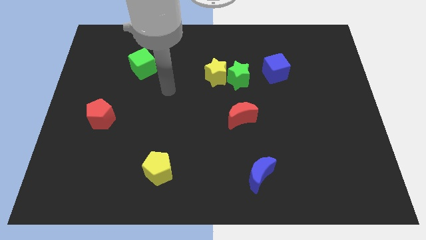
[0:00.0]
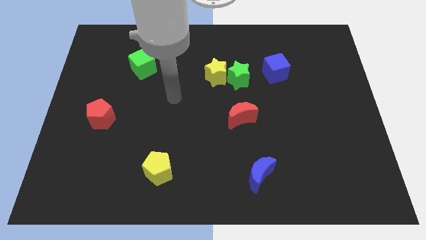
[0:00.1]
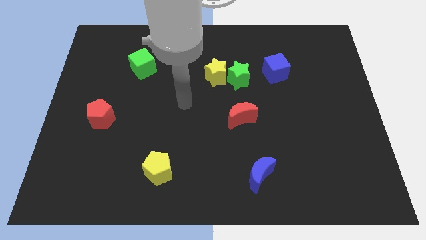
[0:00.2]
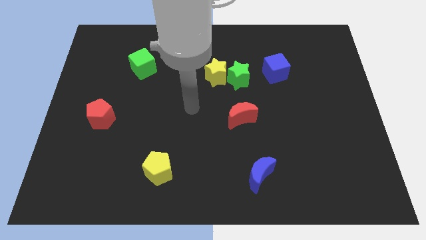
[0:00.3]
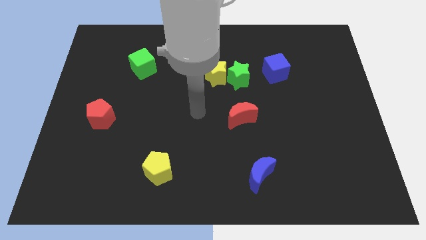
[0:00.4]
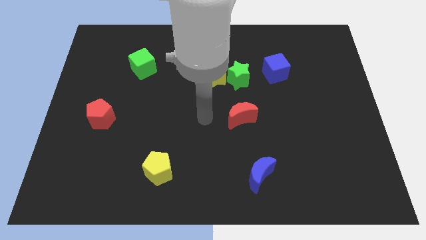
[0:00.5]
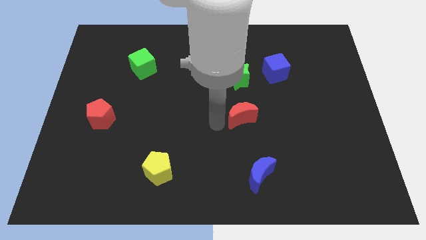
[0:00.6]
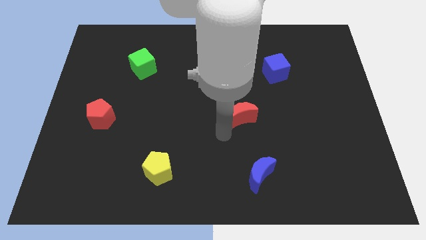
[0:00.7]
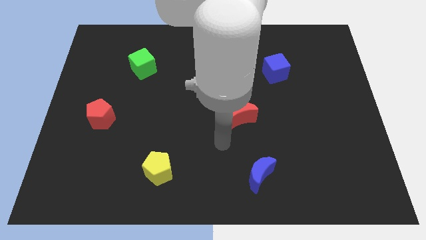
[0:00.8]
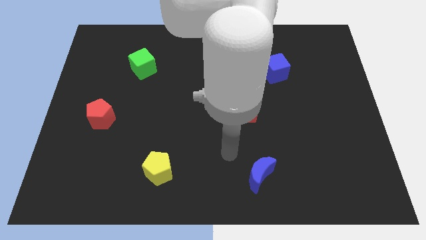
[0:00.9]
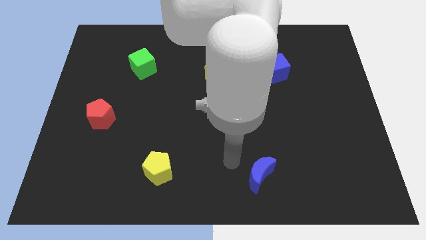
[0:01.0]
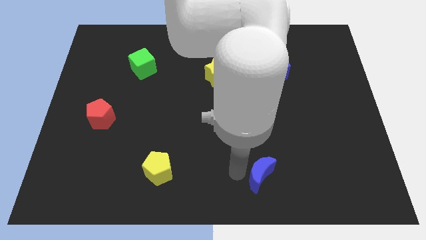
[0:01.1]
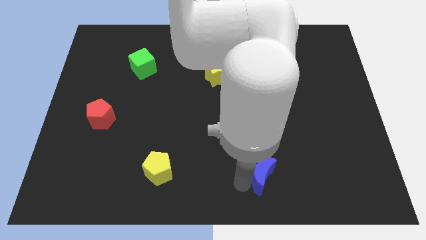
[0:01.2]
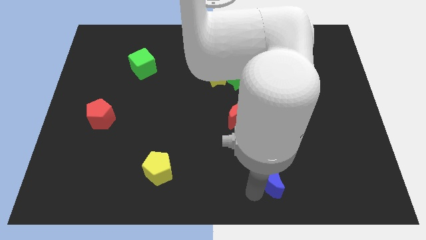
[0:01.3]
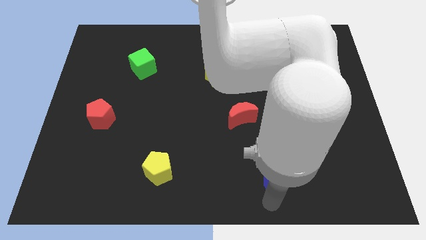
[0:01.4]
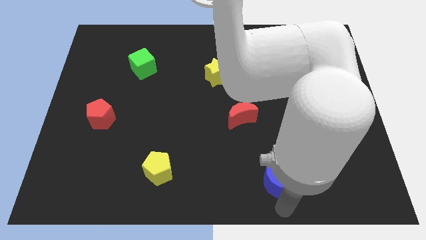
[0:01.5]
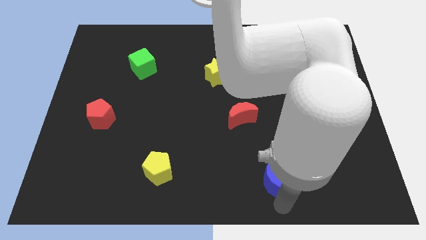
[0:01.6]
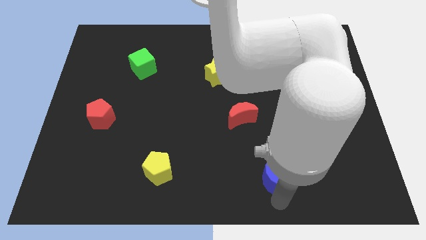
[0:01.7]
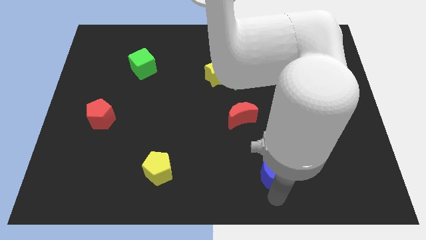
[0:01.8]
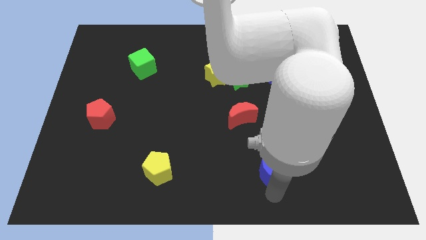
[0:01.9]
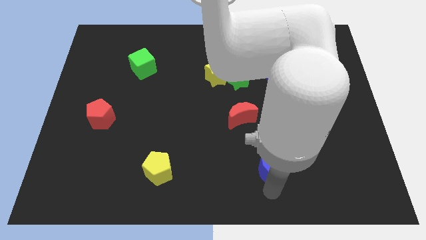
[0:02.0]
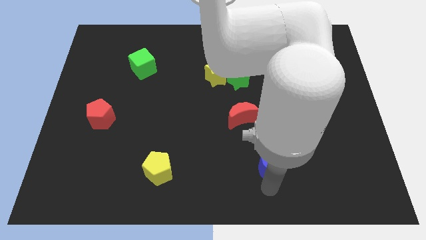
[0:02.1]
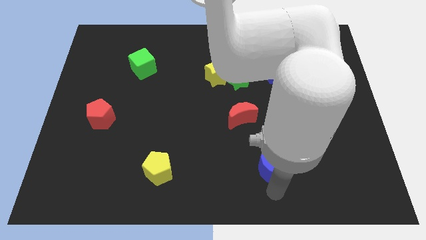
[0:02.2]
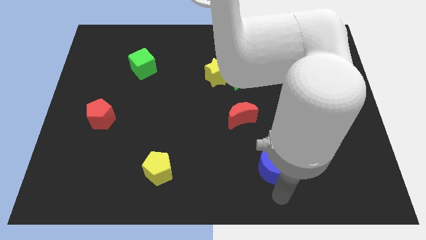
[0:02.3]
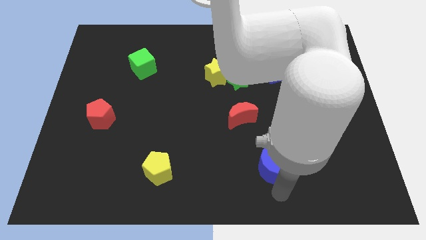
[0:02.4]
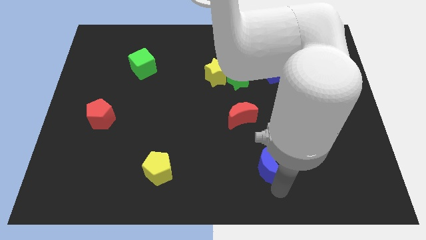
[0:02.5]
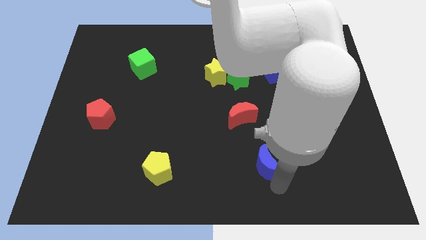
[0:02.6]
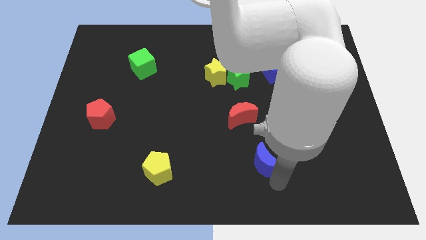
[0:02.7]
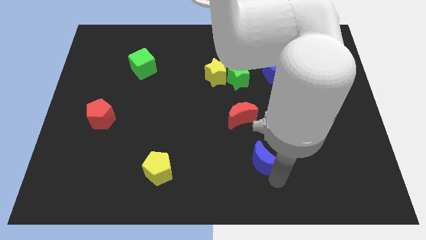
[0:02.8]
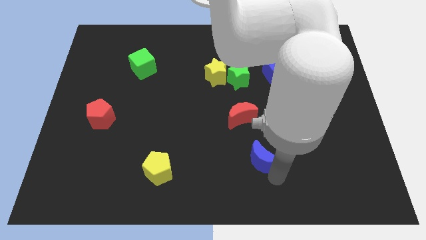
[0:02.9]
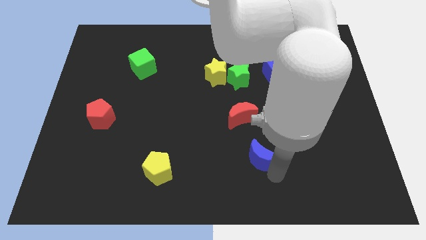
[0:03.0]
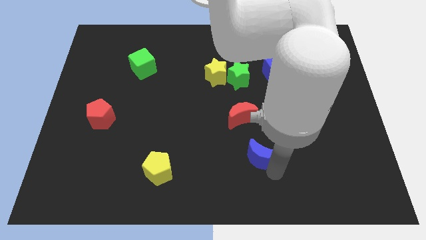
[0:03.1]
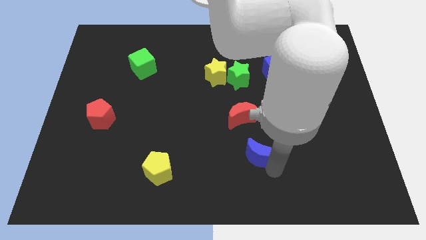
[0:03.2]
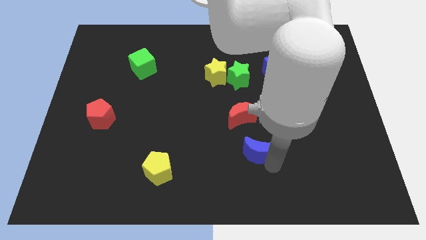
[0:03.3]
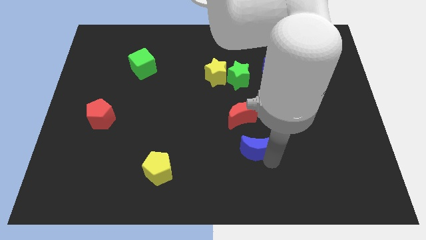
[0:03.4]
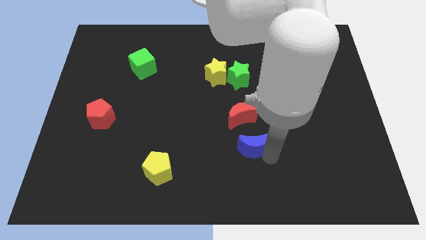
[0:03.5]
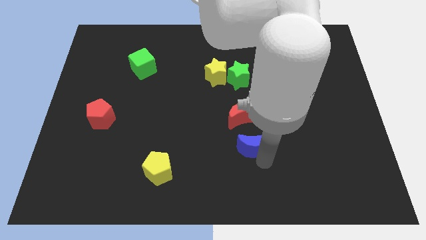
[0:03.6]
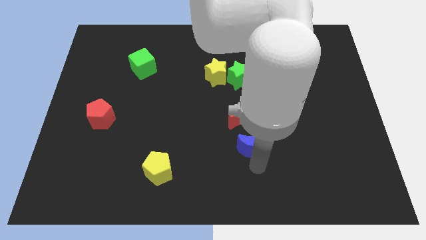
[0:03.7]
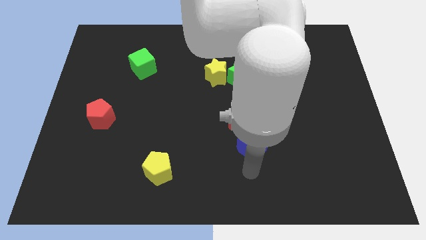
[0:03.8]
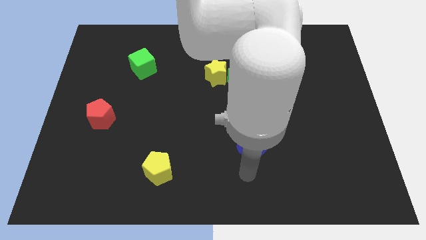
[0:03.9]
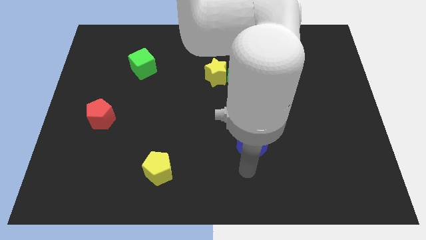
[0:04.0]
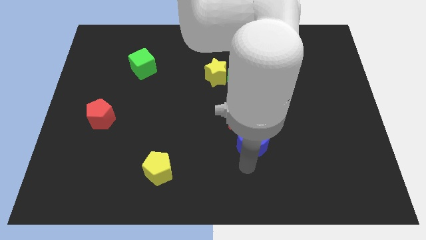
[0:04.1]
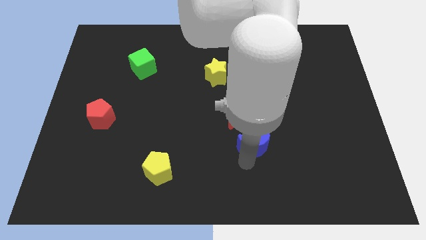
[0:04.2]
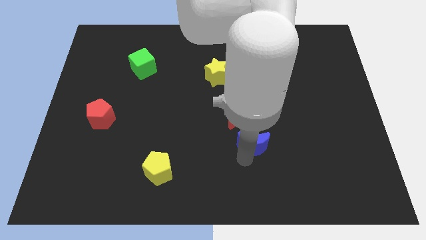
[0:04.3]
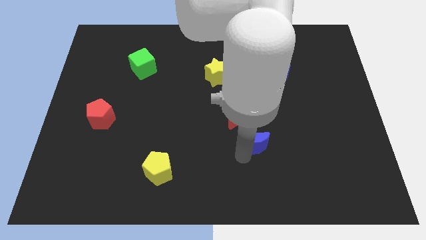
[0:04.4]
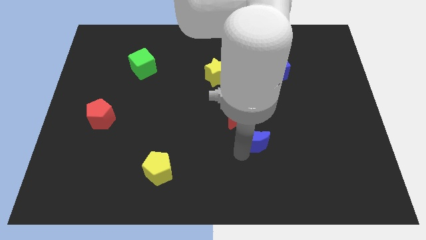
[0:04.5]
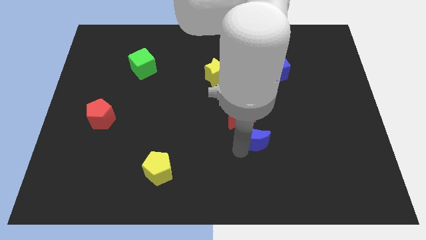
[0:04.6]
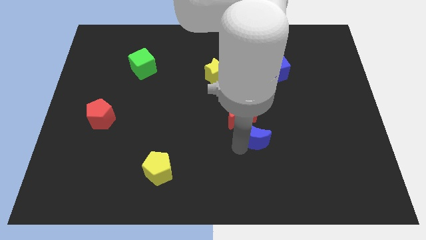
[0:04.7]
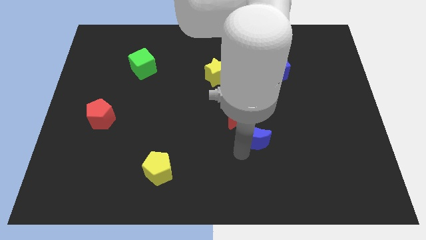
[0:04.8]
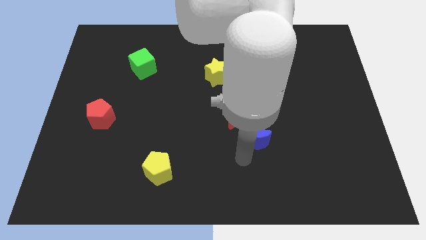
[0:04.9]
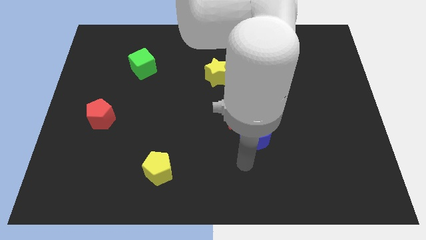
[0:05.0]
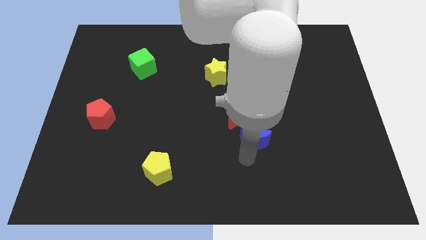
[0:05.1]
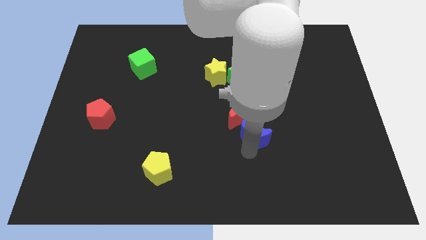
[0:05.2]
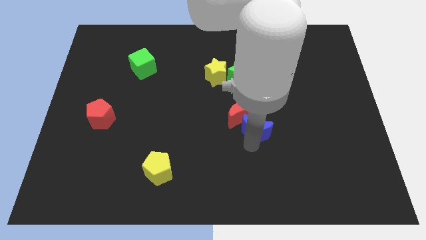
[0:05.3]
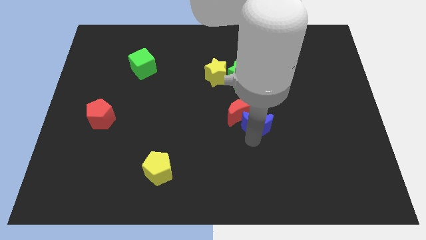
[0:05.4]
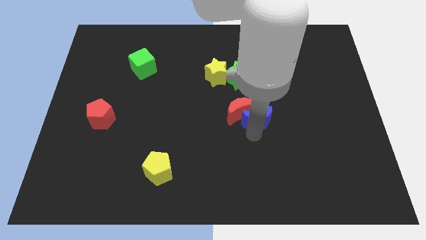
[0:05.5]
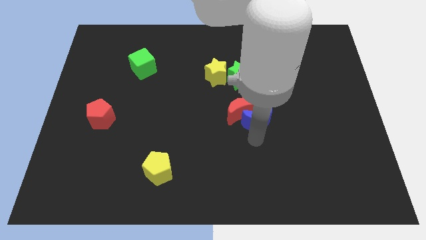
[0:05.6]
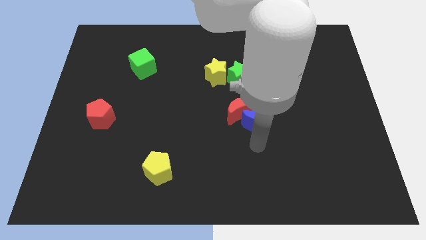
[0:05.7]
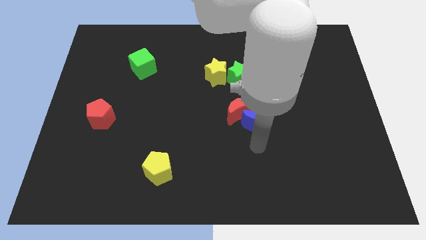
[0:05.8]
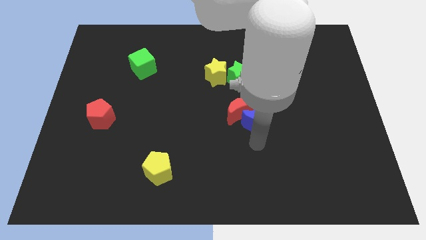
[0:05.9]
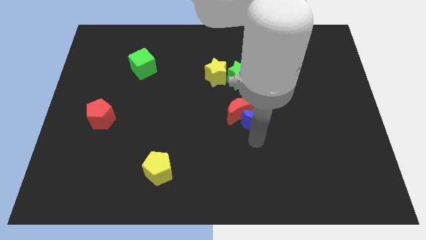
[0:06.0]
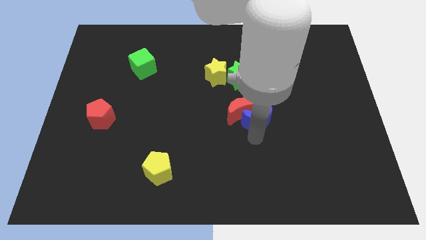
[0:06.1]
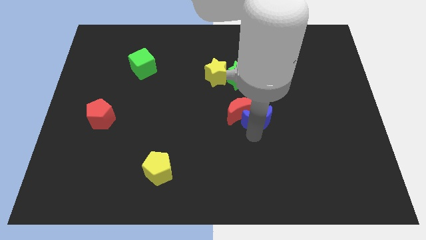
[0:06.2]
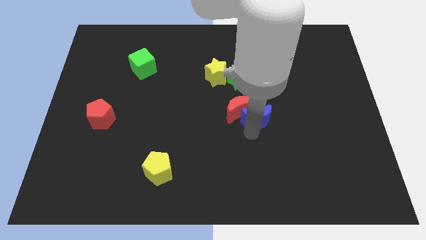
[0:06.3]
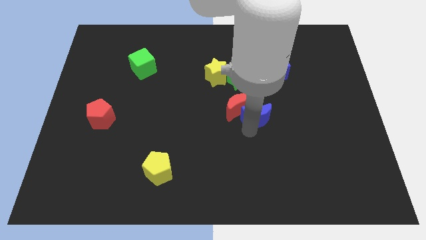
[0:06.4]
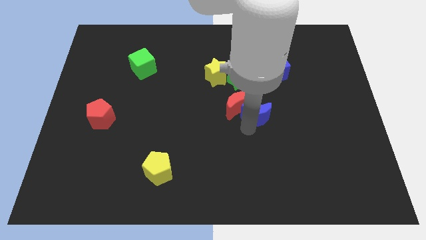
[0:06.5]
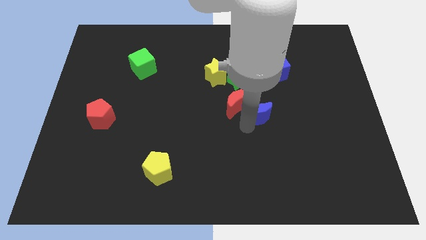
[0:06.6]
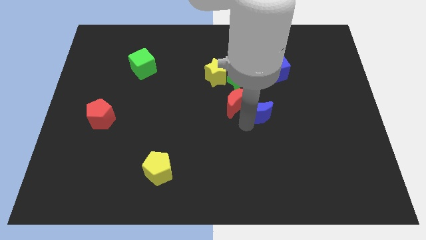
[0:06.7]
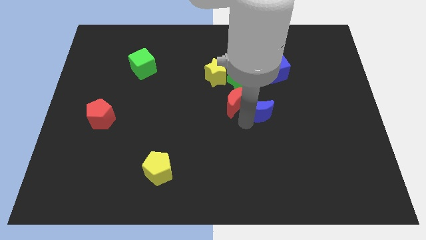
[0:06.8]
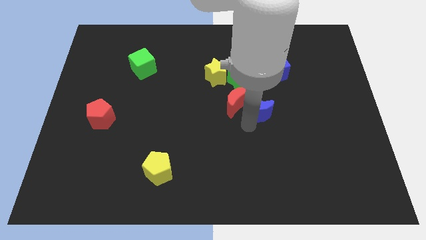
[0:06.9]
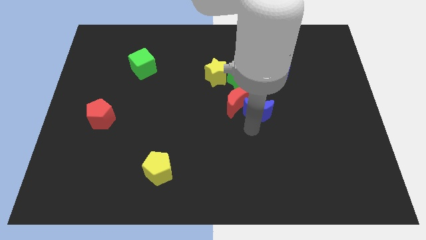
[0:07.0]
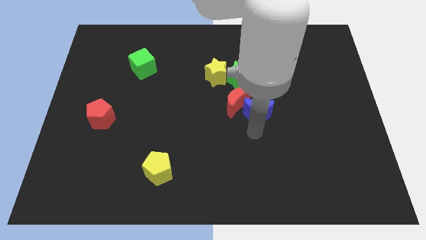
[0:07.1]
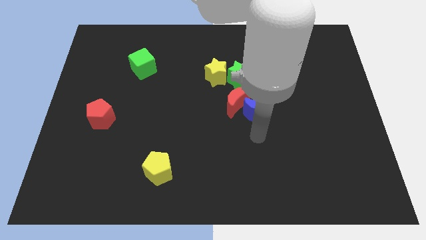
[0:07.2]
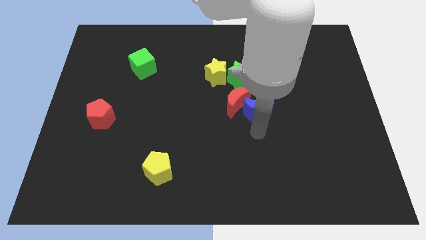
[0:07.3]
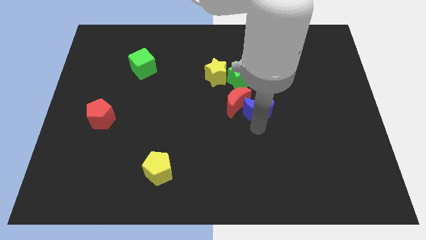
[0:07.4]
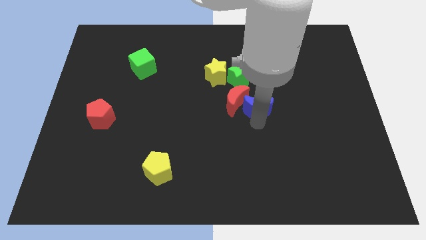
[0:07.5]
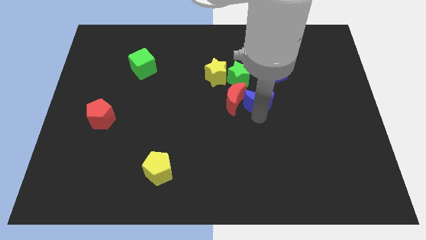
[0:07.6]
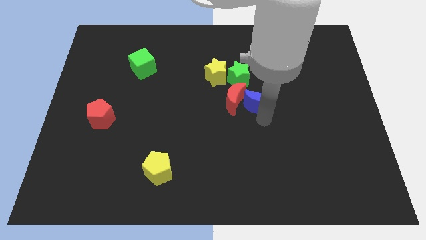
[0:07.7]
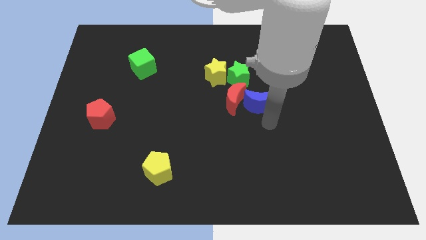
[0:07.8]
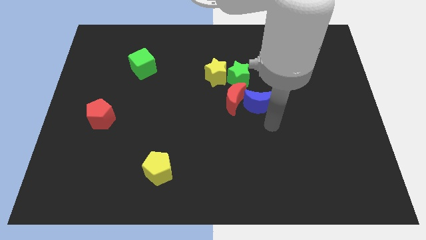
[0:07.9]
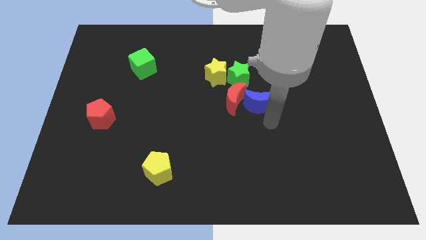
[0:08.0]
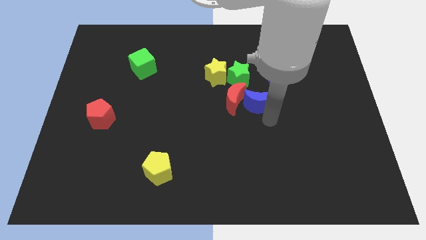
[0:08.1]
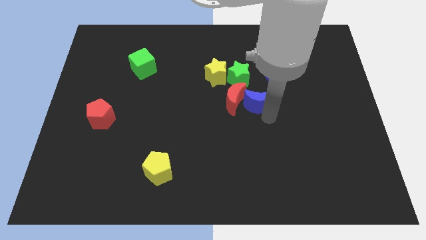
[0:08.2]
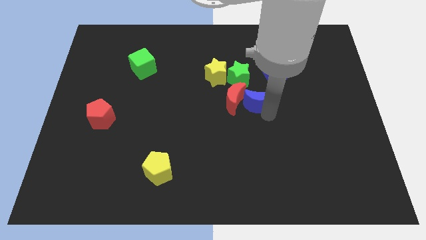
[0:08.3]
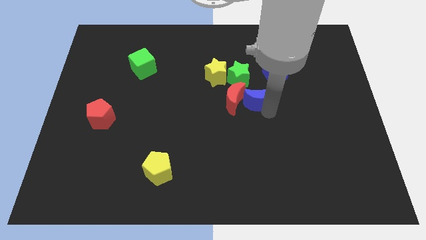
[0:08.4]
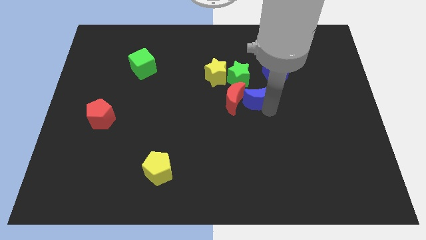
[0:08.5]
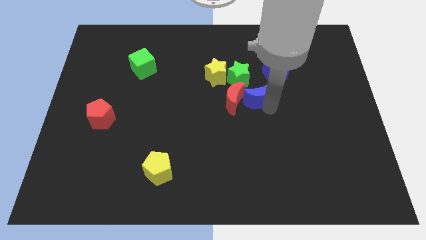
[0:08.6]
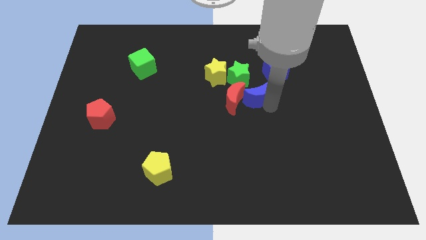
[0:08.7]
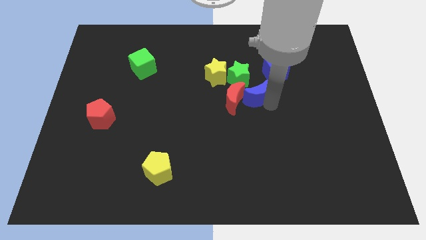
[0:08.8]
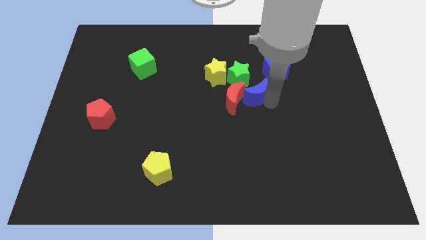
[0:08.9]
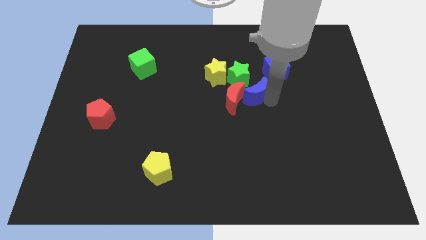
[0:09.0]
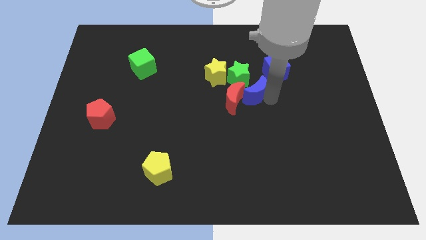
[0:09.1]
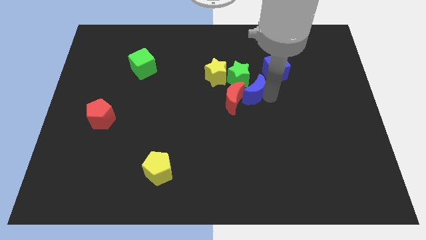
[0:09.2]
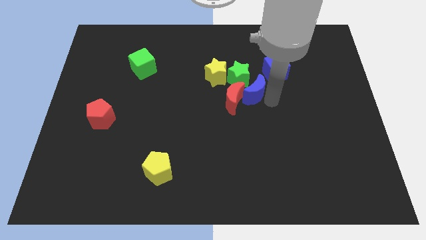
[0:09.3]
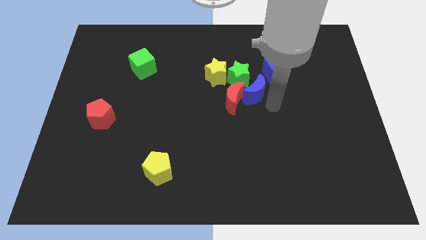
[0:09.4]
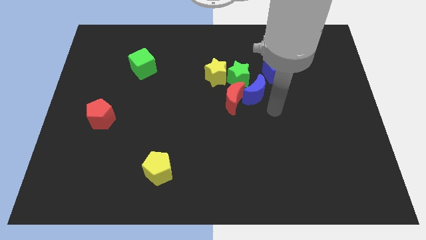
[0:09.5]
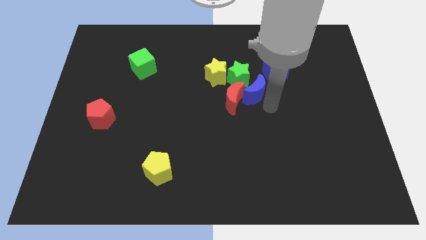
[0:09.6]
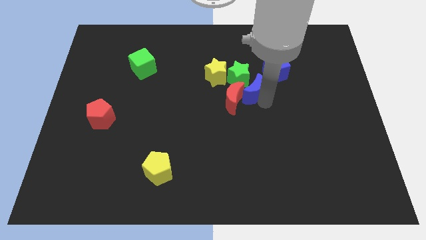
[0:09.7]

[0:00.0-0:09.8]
put the blue moon to the green star
